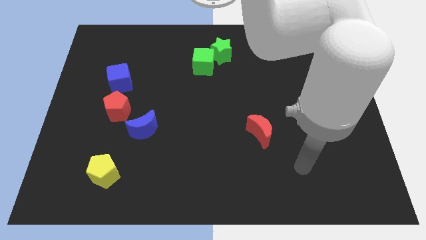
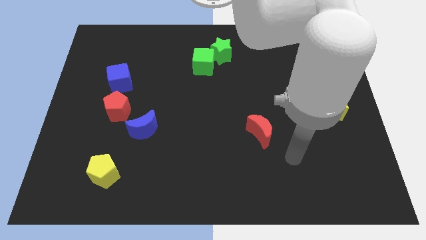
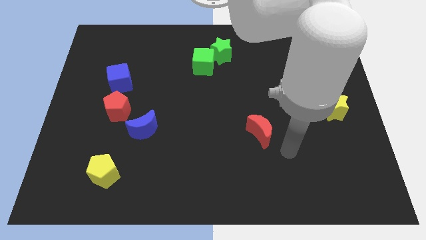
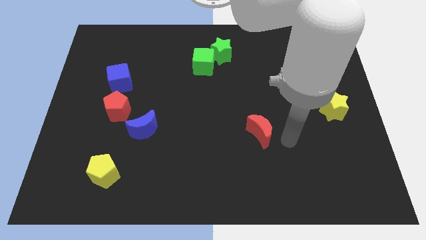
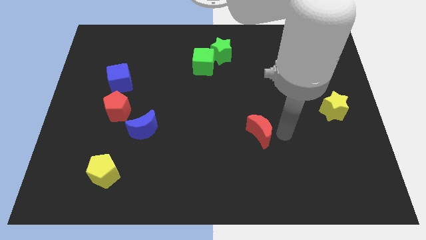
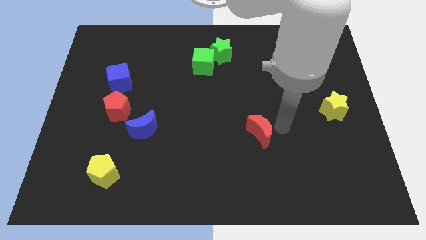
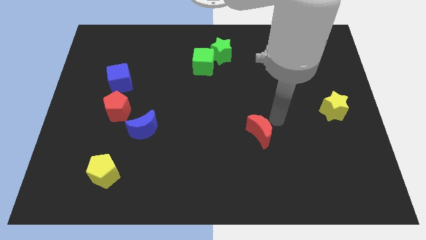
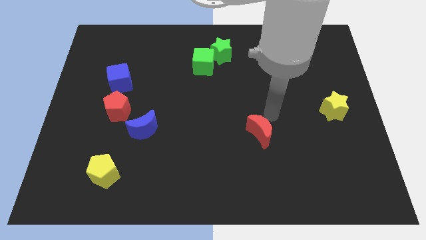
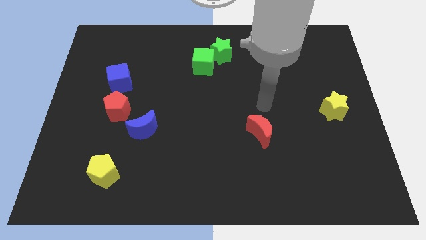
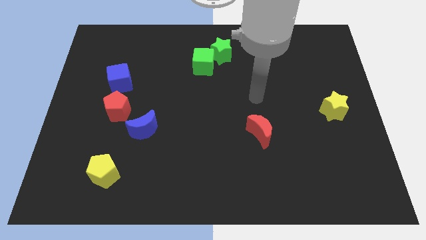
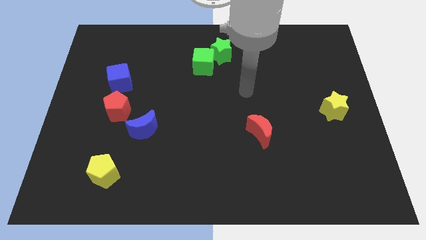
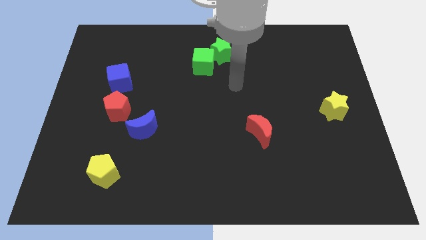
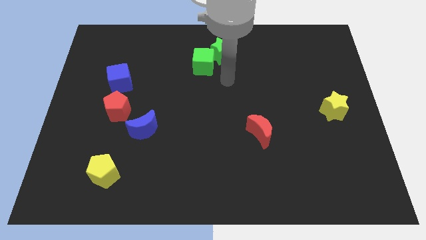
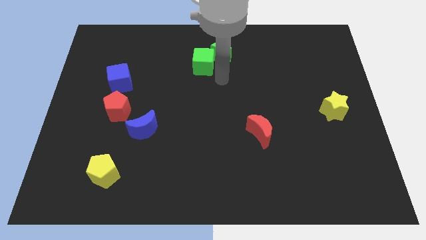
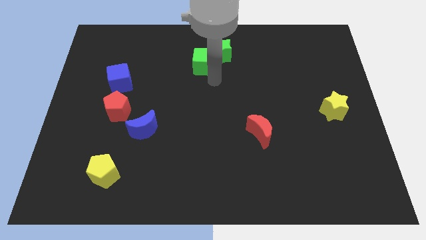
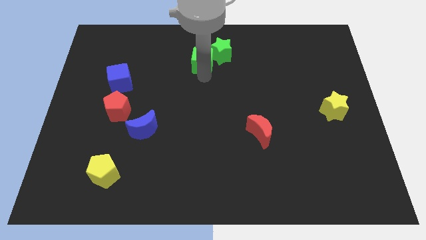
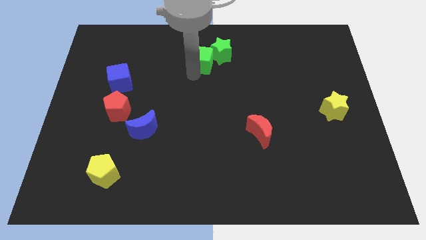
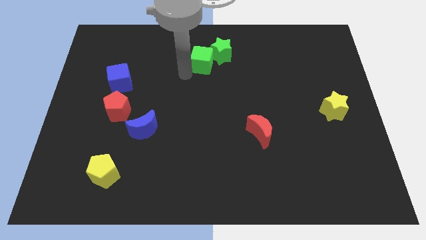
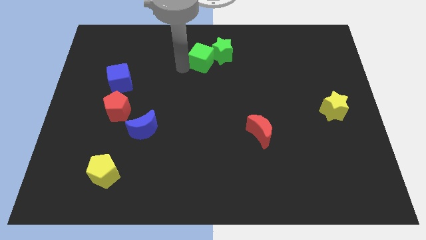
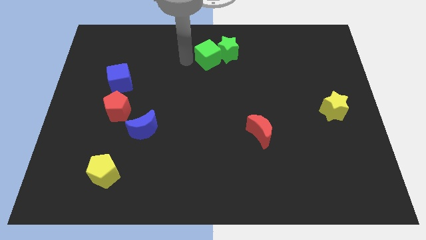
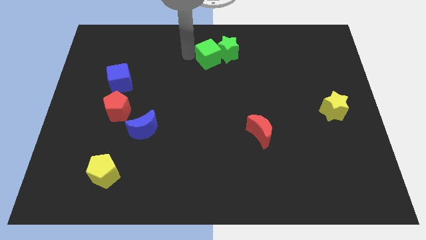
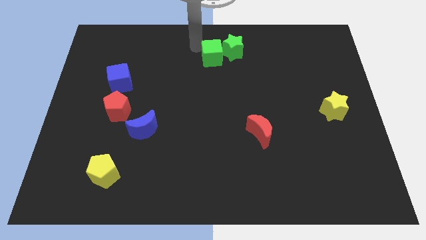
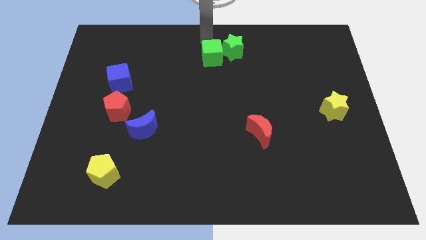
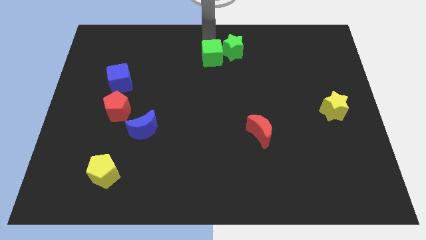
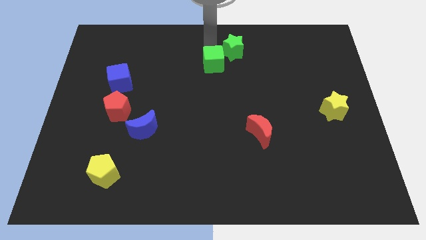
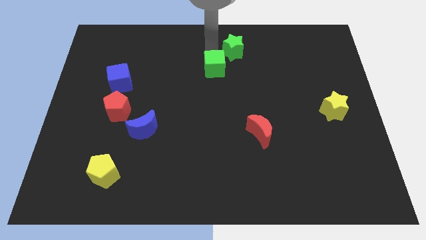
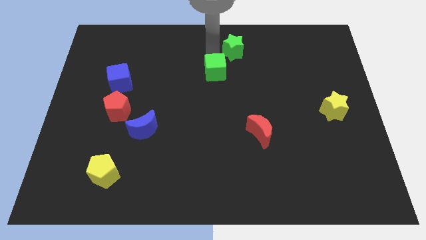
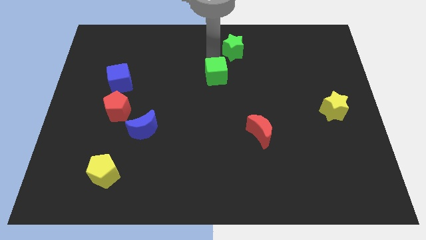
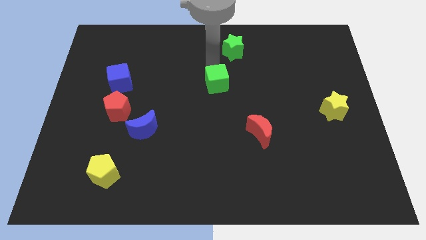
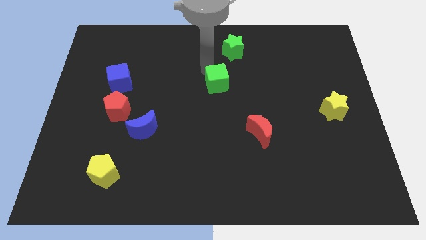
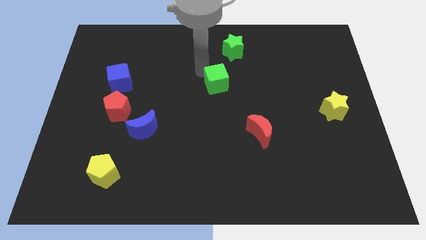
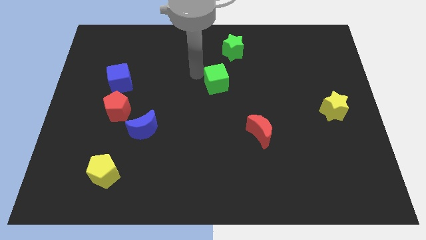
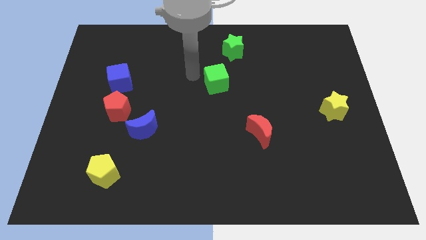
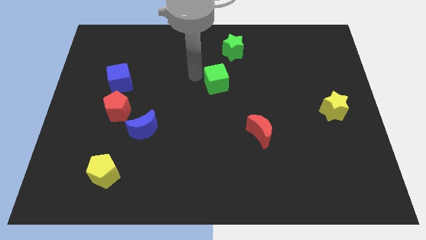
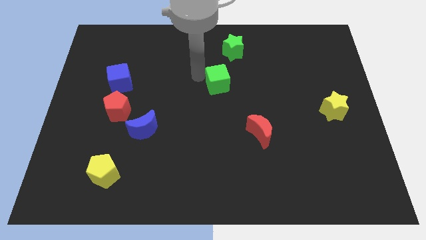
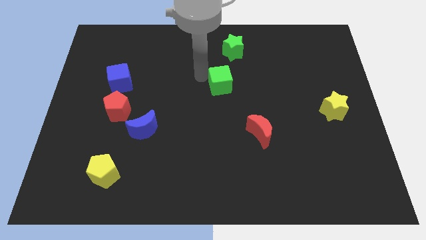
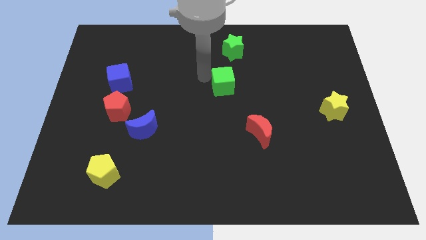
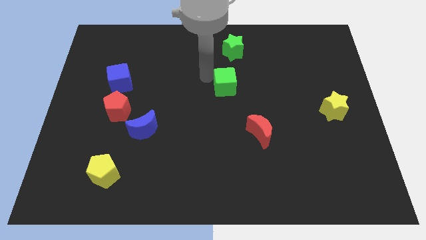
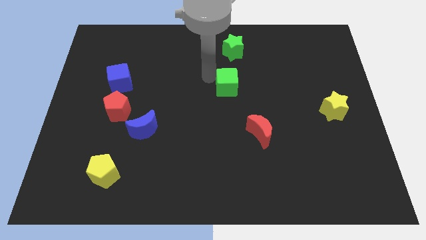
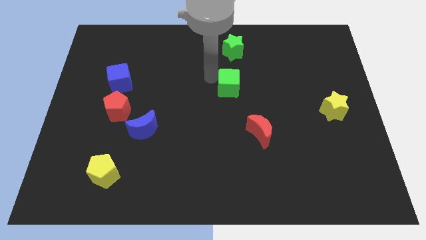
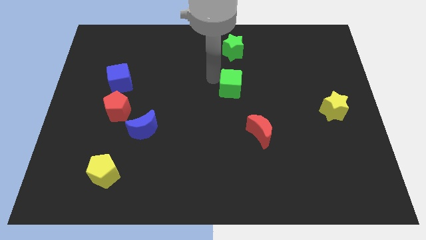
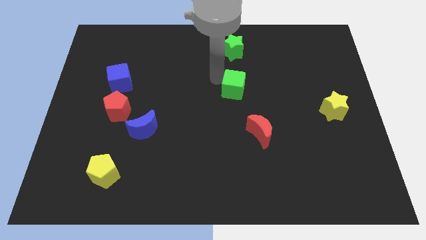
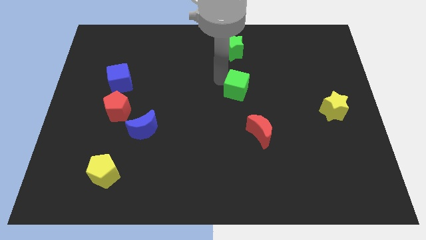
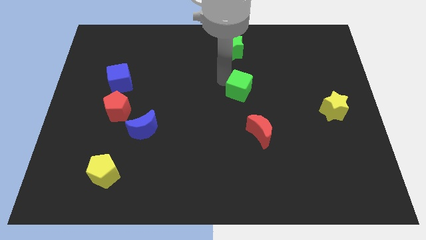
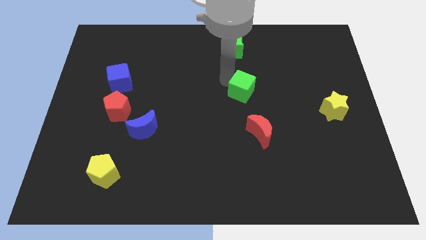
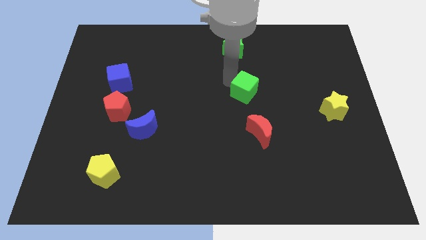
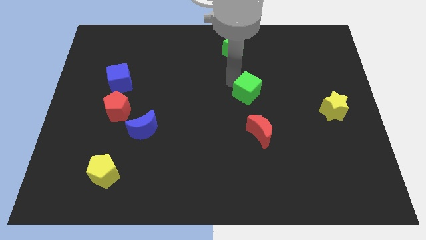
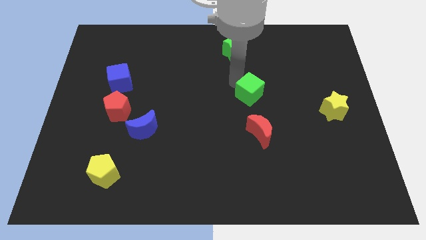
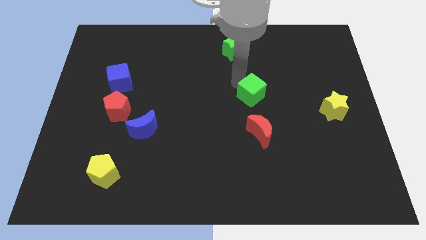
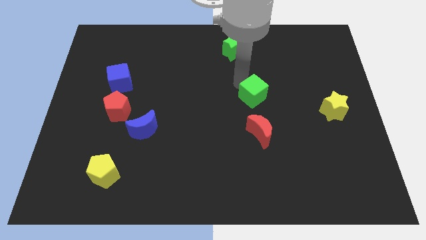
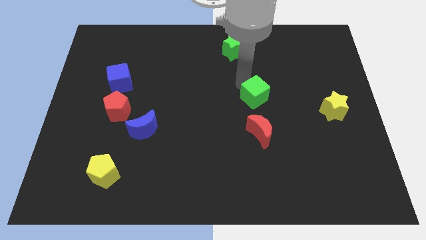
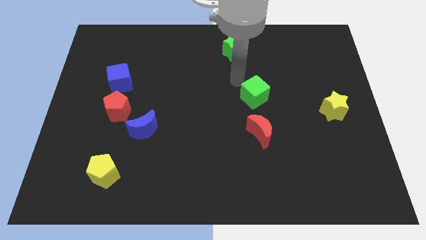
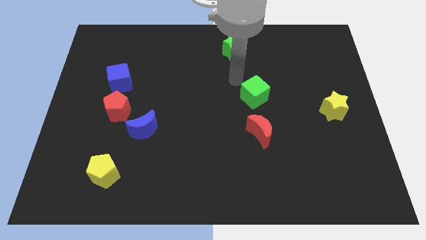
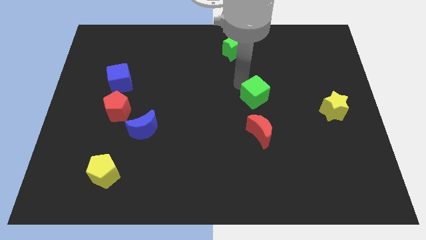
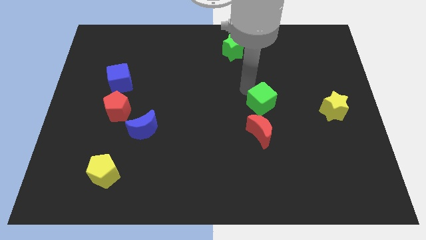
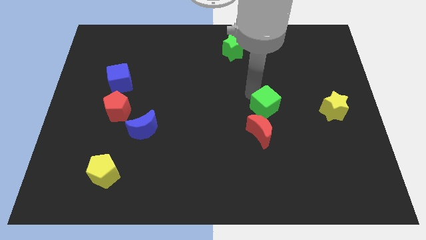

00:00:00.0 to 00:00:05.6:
move the green cube down and right
